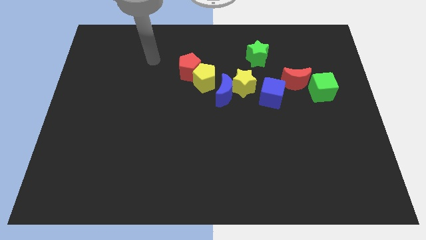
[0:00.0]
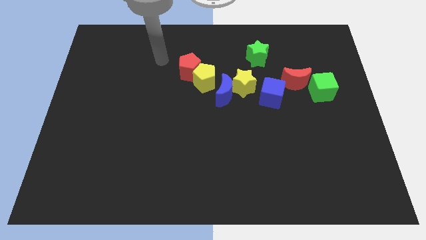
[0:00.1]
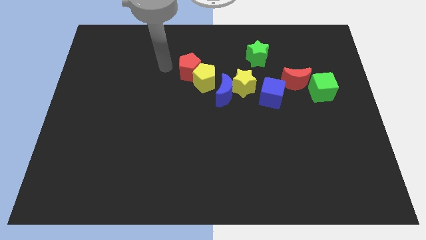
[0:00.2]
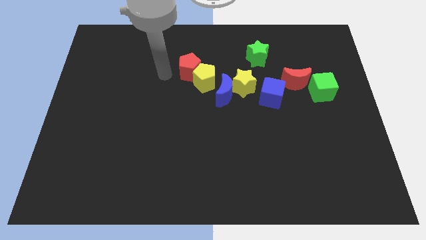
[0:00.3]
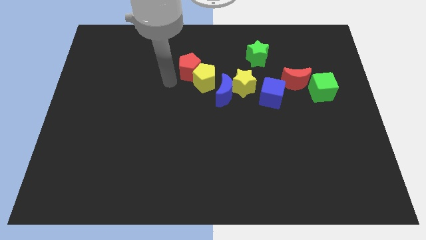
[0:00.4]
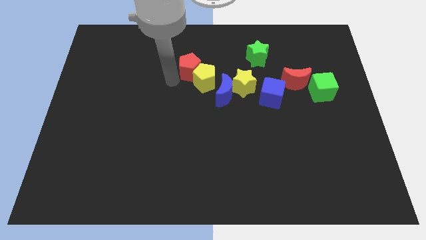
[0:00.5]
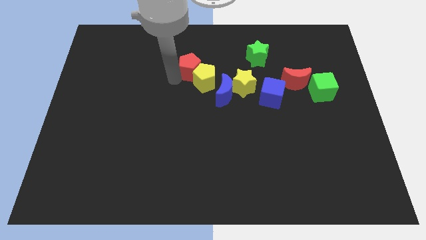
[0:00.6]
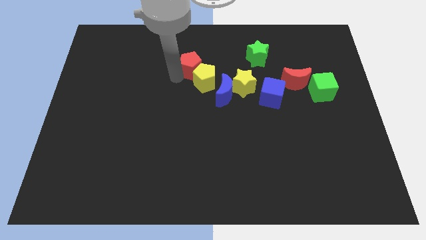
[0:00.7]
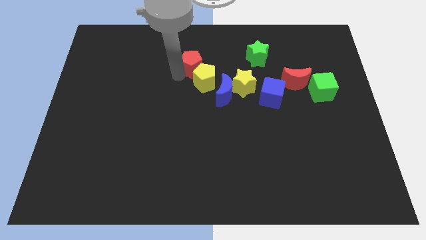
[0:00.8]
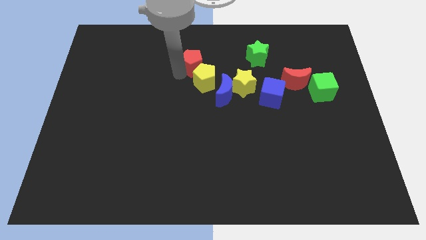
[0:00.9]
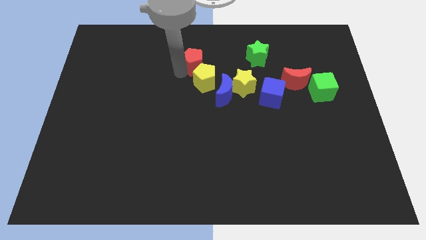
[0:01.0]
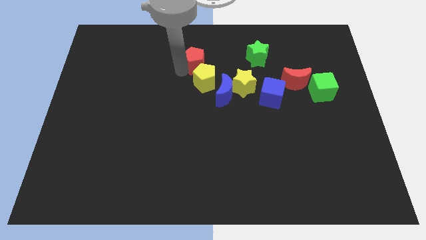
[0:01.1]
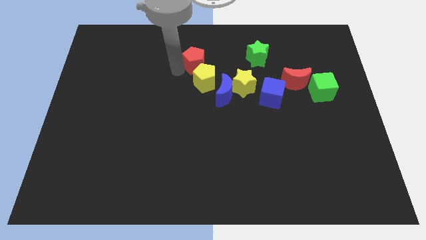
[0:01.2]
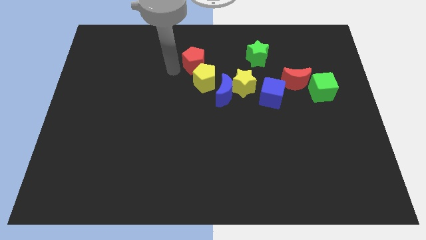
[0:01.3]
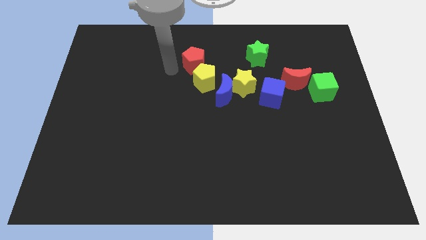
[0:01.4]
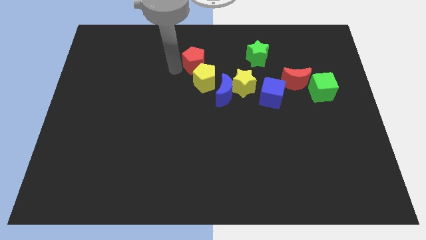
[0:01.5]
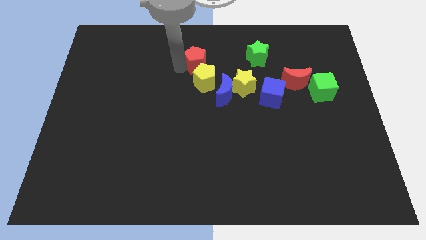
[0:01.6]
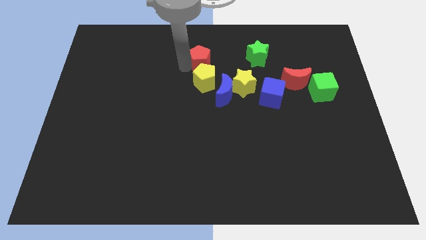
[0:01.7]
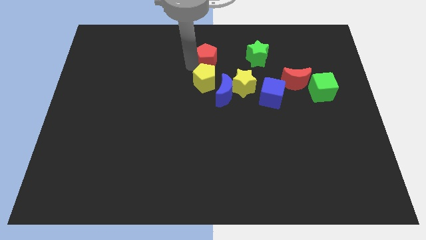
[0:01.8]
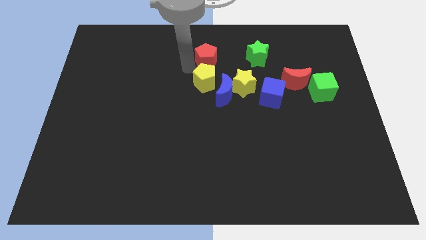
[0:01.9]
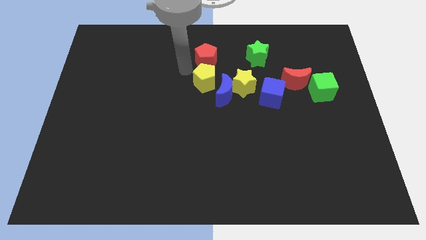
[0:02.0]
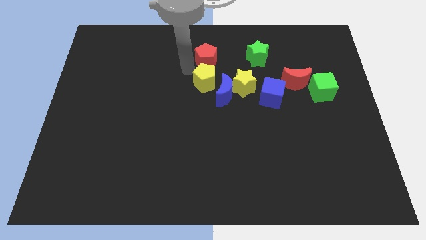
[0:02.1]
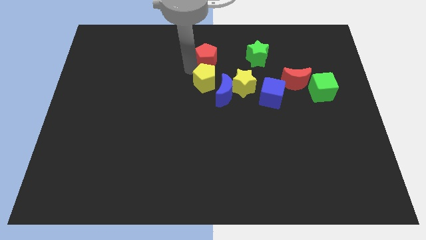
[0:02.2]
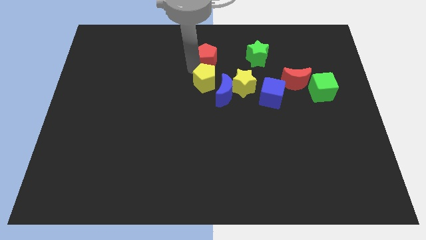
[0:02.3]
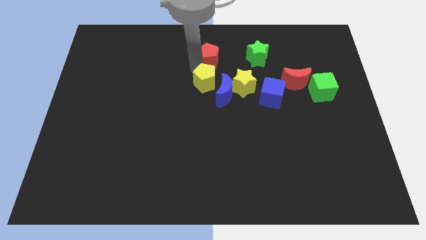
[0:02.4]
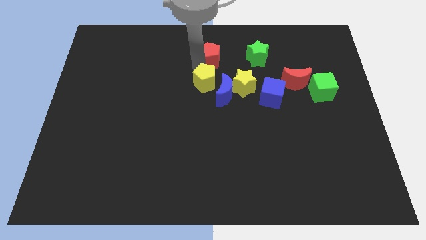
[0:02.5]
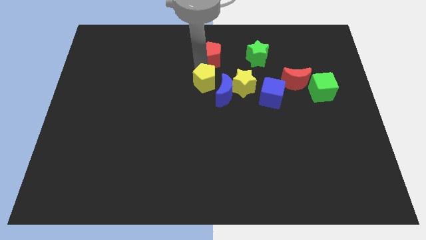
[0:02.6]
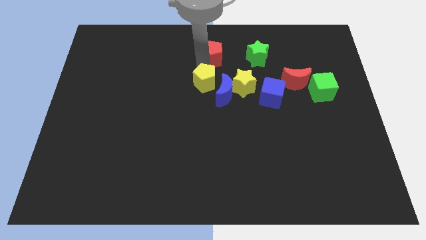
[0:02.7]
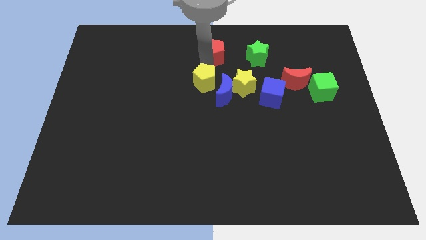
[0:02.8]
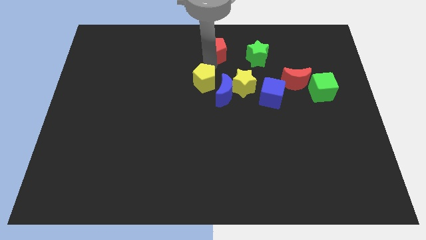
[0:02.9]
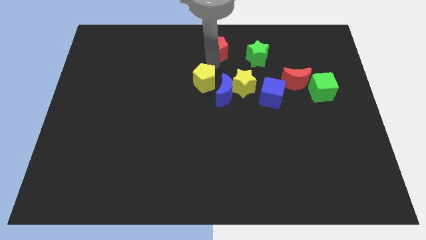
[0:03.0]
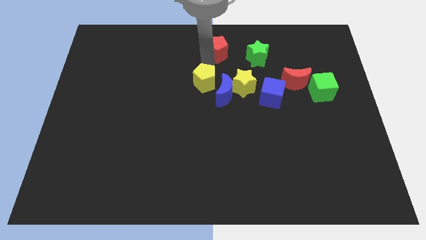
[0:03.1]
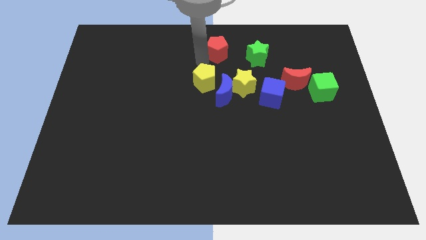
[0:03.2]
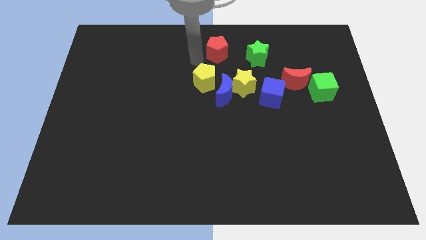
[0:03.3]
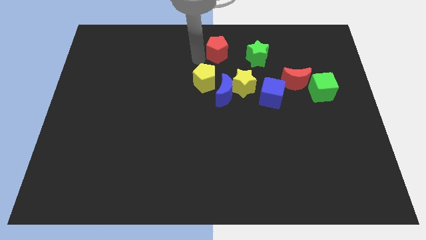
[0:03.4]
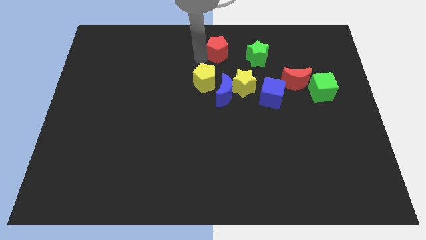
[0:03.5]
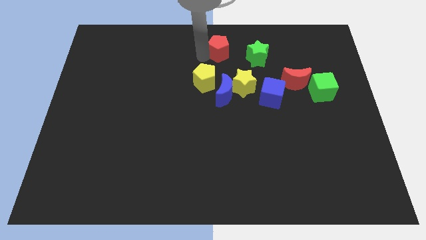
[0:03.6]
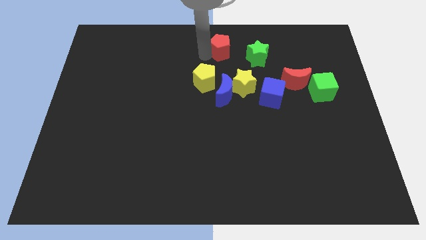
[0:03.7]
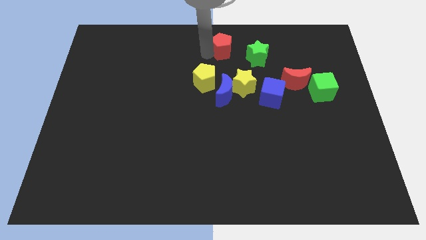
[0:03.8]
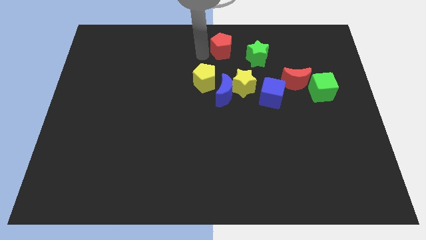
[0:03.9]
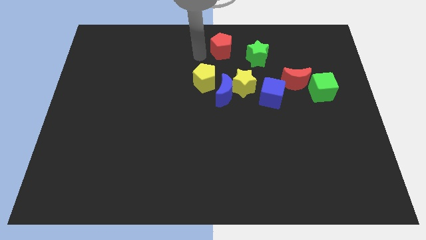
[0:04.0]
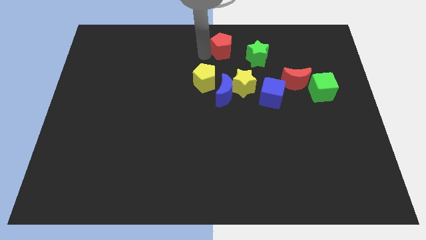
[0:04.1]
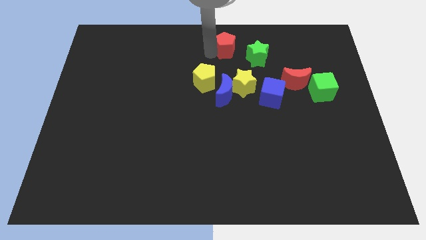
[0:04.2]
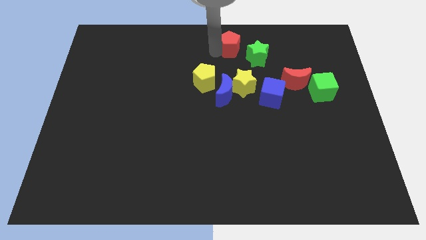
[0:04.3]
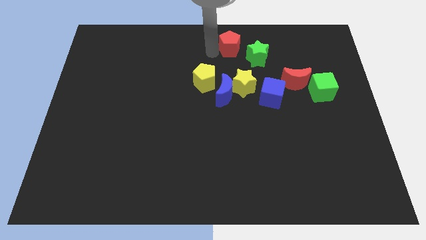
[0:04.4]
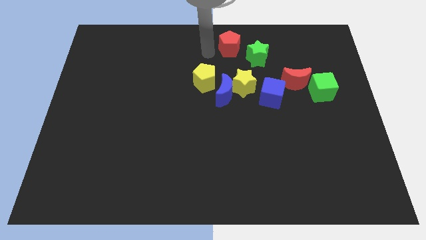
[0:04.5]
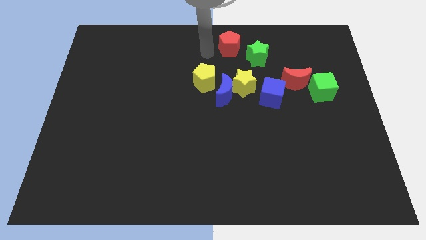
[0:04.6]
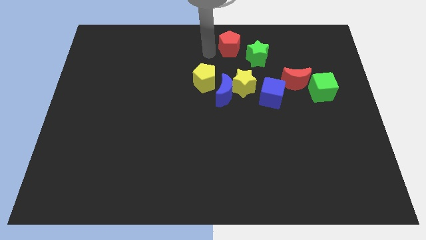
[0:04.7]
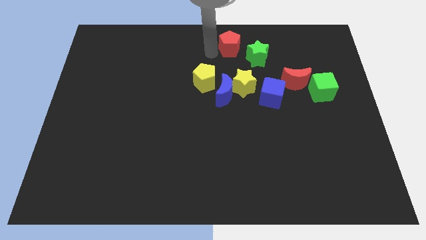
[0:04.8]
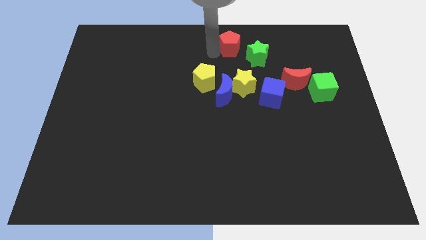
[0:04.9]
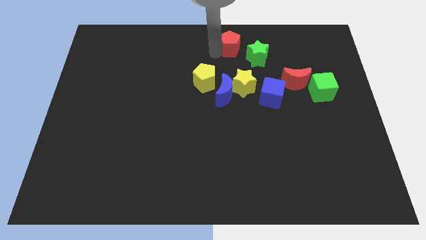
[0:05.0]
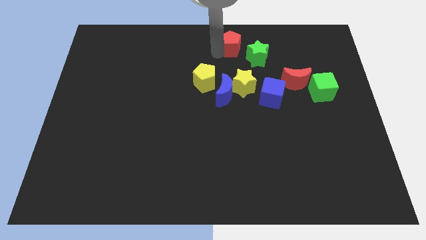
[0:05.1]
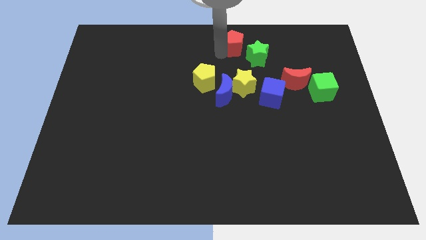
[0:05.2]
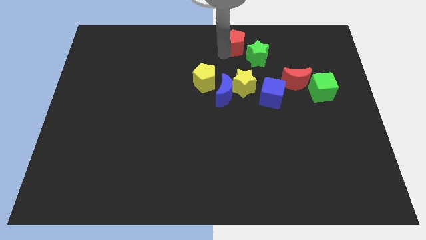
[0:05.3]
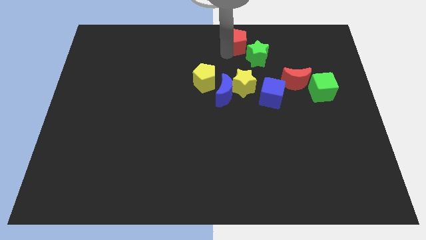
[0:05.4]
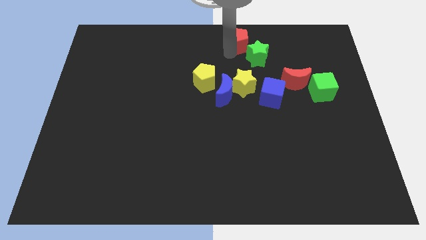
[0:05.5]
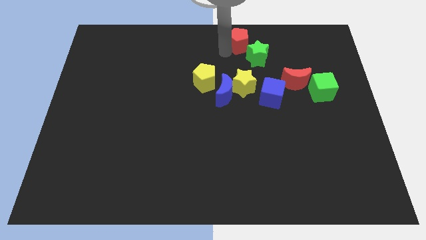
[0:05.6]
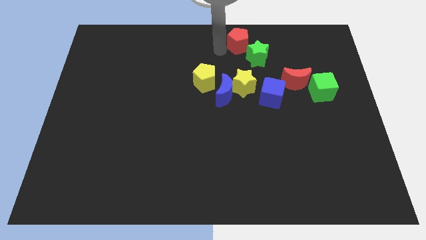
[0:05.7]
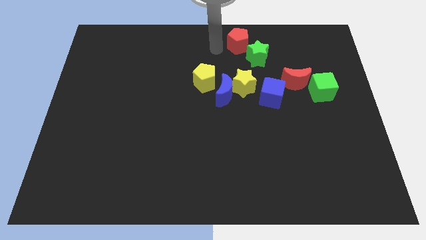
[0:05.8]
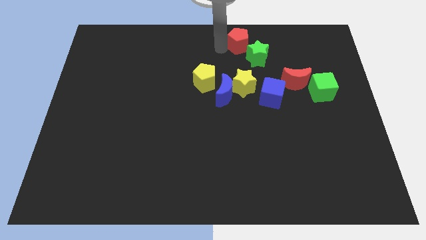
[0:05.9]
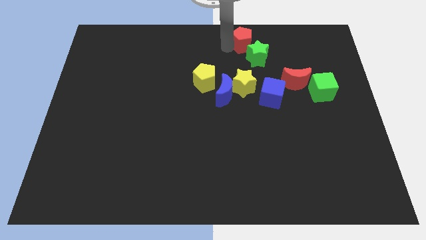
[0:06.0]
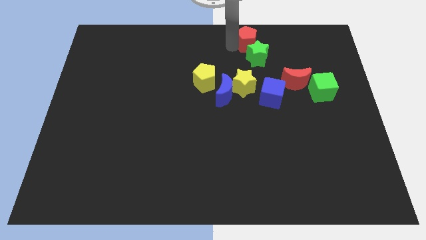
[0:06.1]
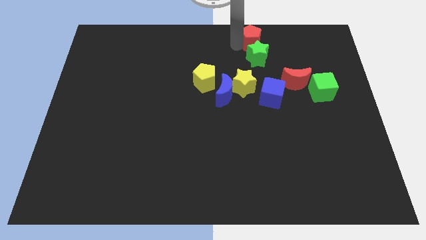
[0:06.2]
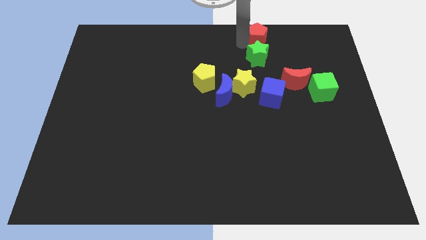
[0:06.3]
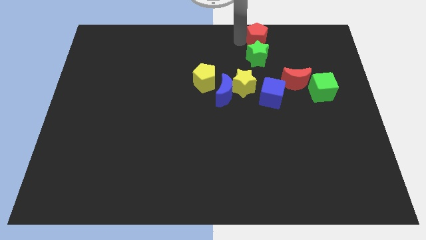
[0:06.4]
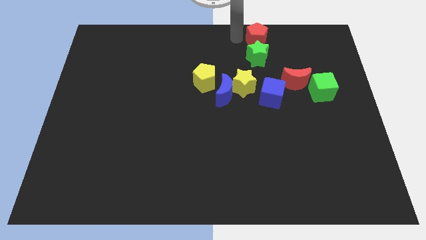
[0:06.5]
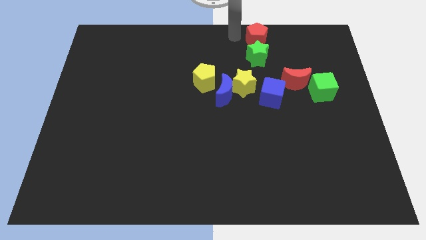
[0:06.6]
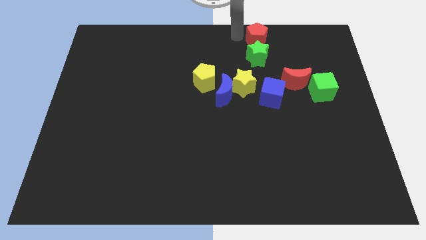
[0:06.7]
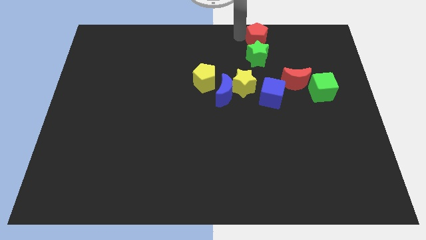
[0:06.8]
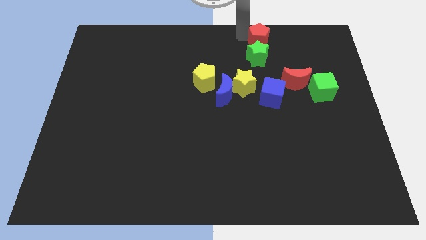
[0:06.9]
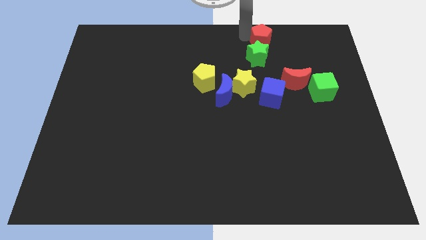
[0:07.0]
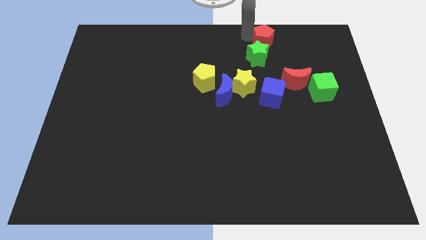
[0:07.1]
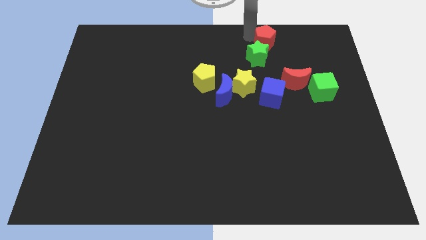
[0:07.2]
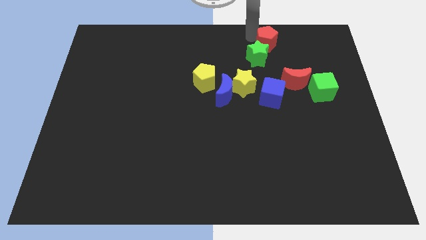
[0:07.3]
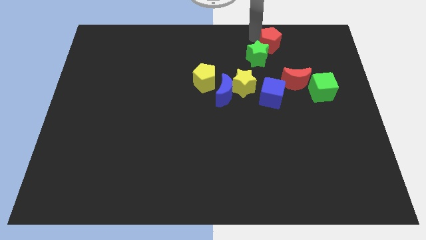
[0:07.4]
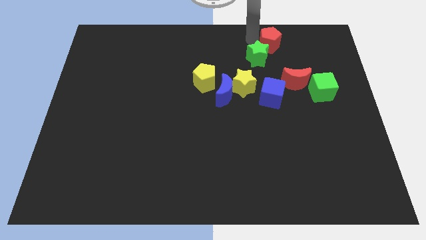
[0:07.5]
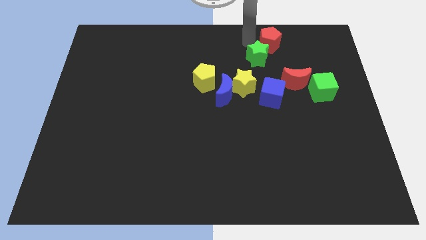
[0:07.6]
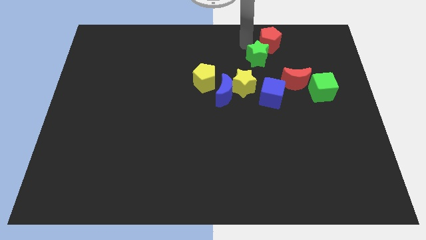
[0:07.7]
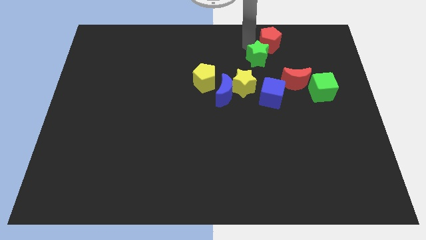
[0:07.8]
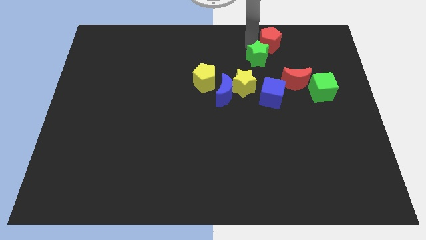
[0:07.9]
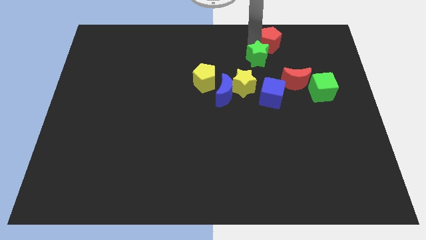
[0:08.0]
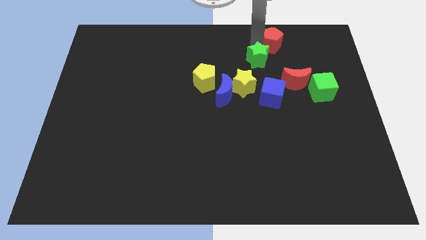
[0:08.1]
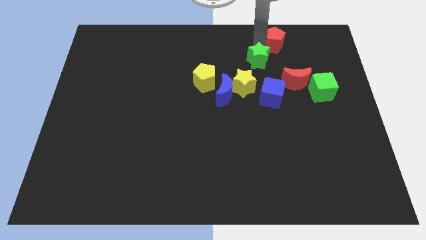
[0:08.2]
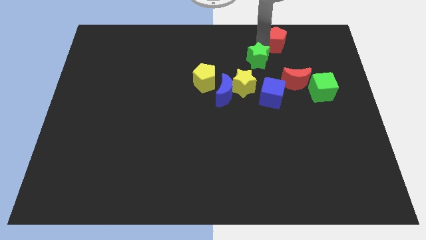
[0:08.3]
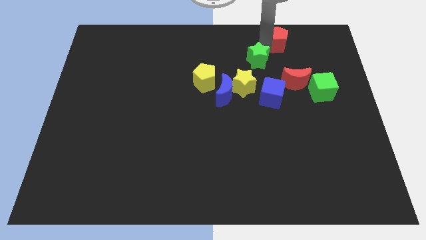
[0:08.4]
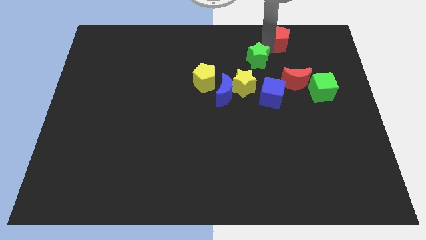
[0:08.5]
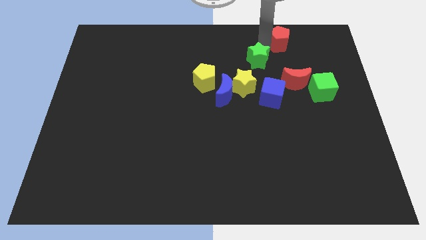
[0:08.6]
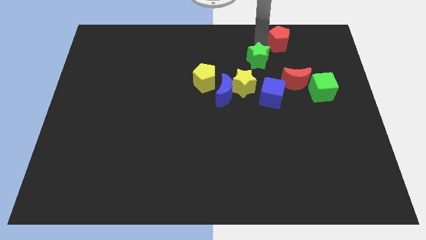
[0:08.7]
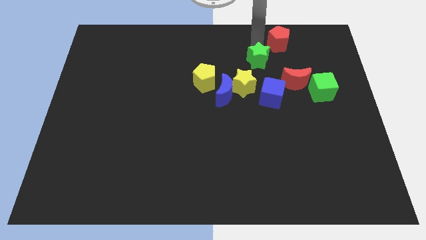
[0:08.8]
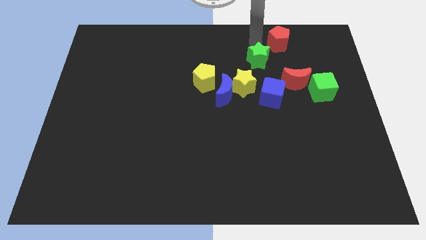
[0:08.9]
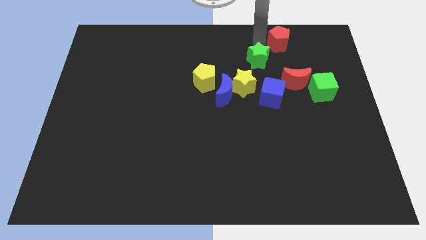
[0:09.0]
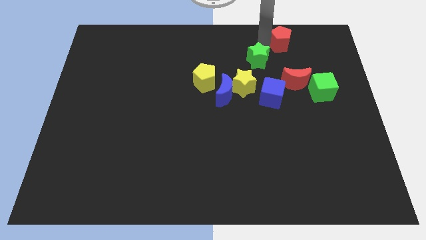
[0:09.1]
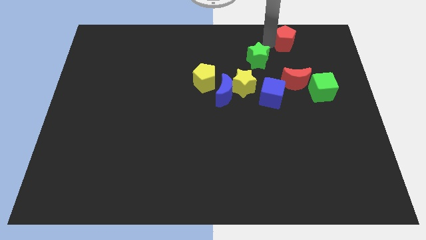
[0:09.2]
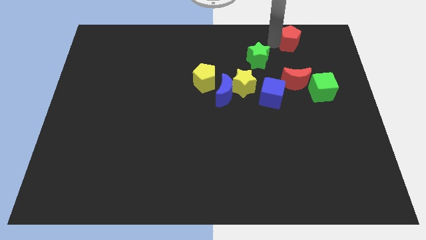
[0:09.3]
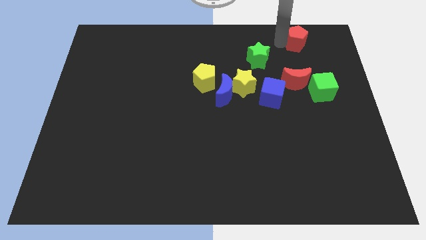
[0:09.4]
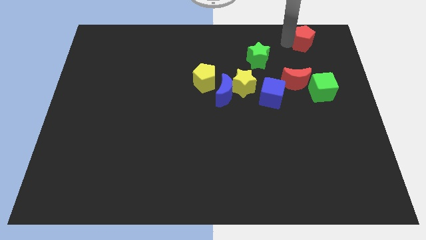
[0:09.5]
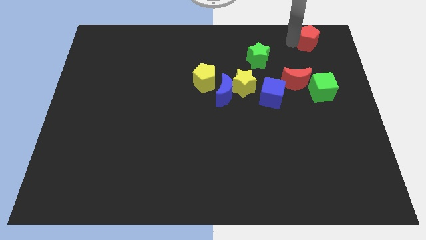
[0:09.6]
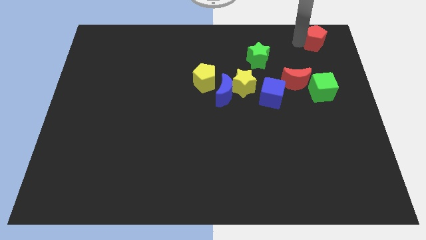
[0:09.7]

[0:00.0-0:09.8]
slide the red pentagon to the top right corner
